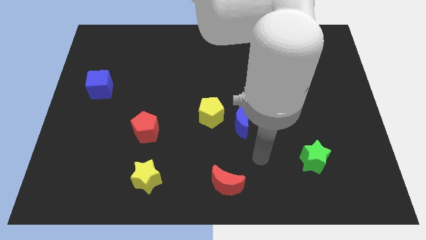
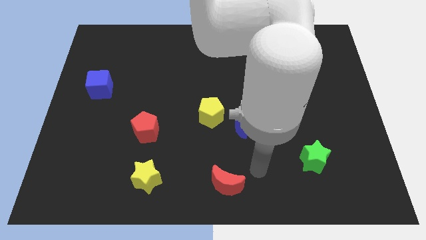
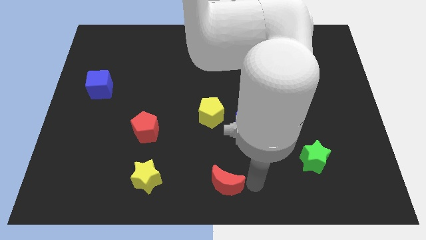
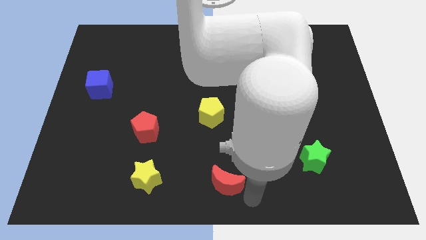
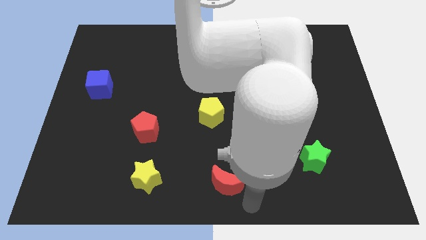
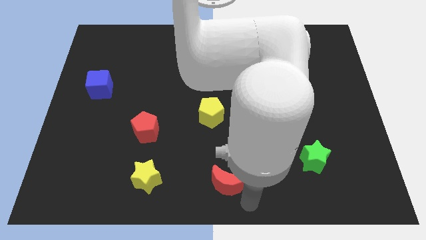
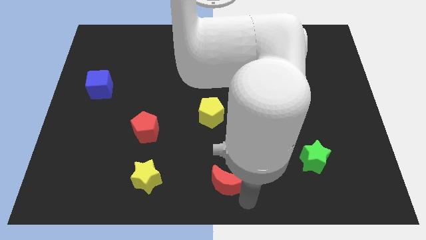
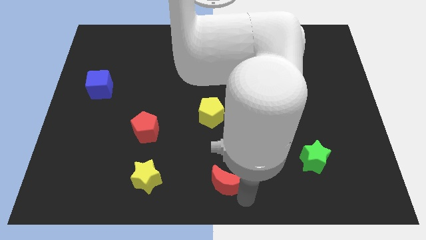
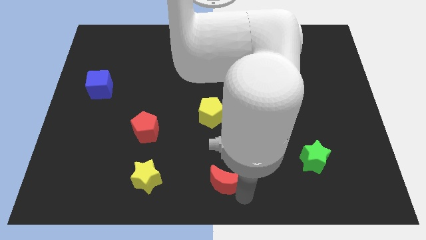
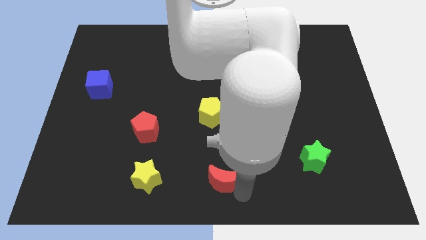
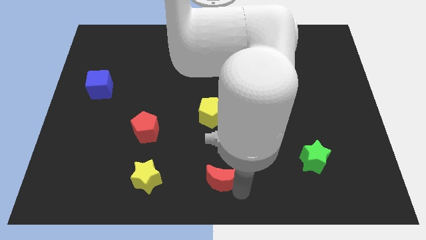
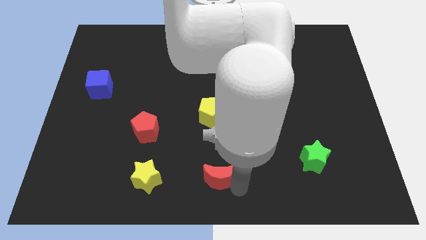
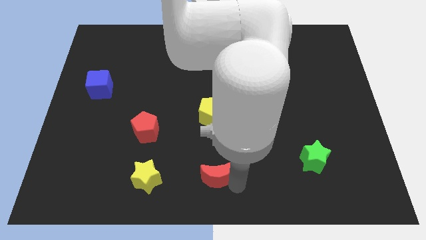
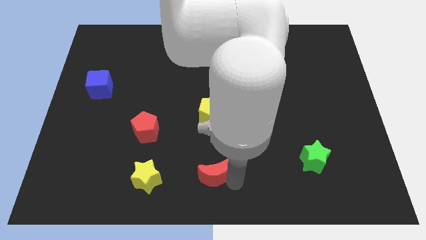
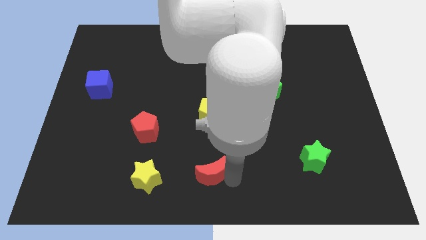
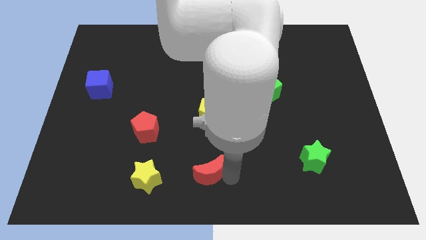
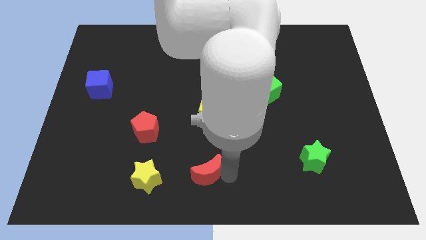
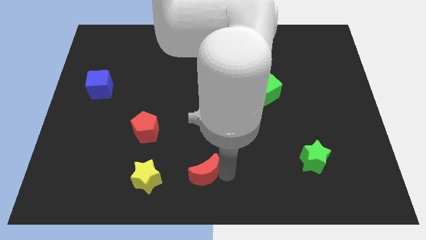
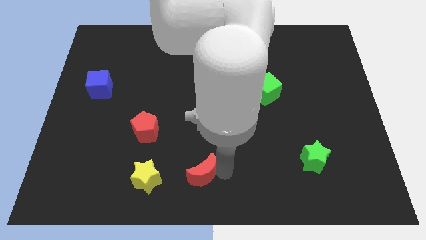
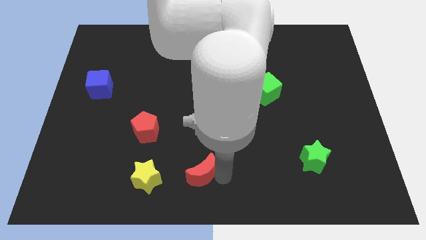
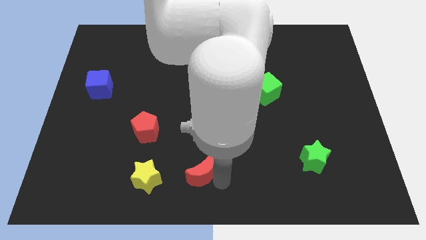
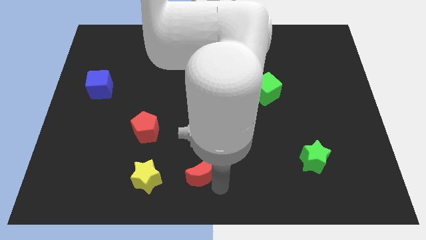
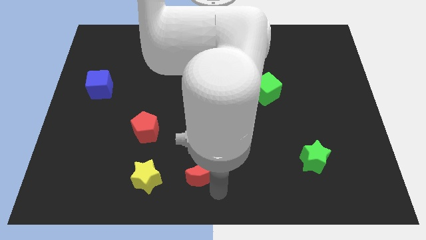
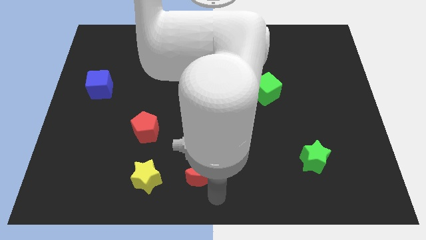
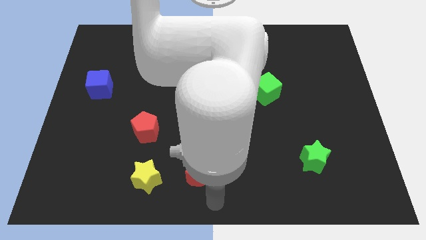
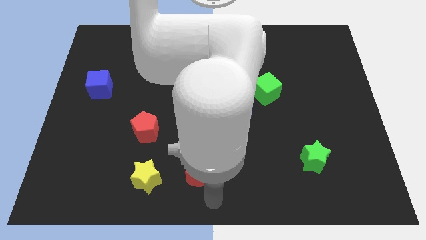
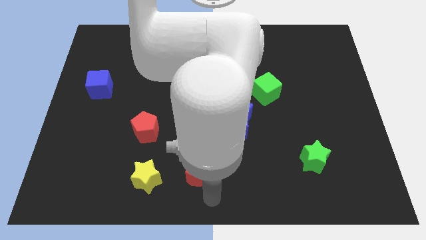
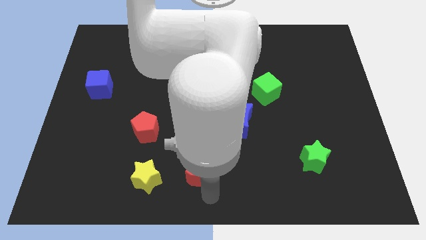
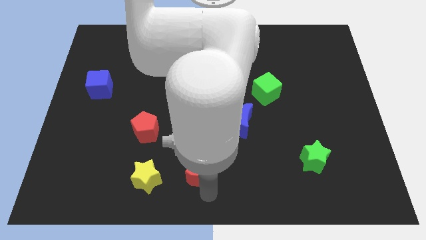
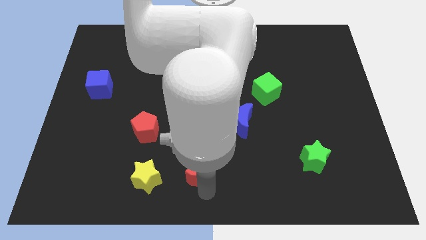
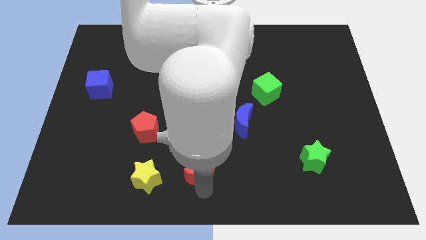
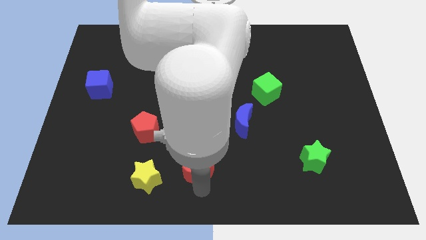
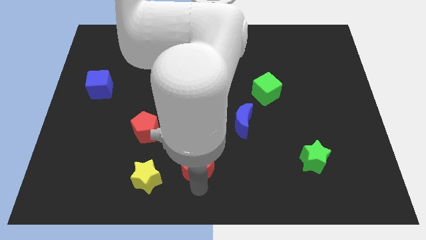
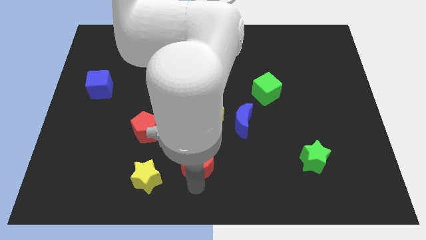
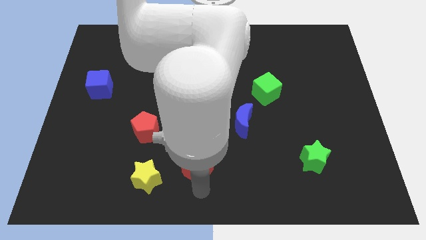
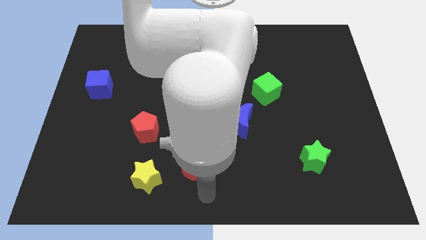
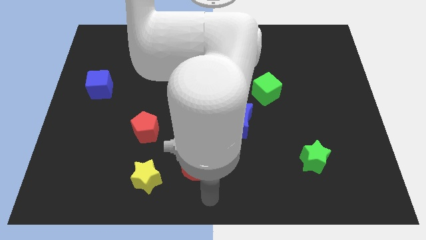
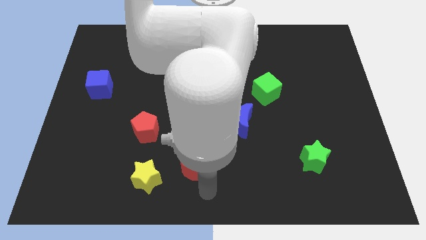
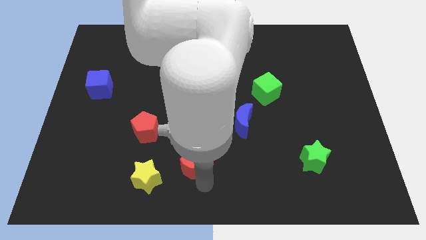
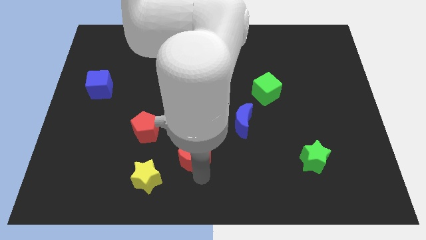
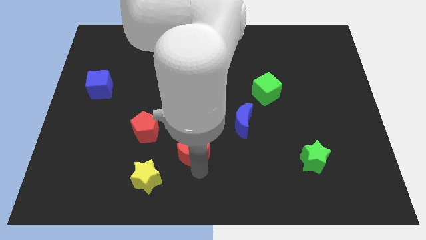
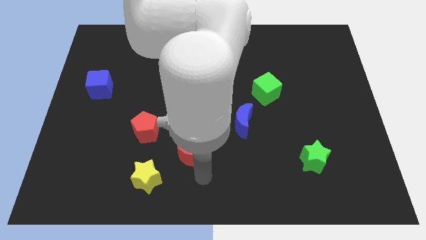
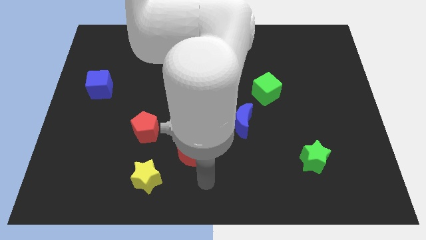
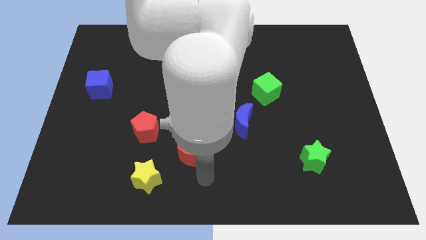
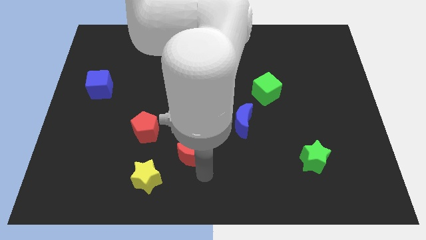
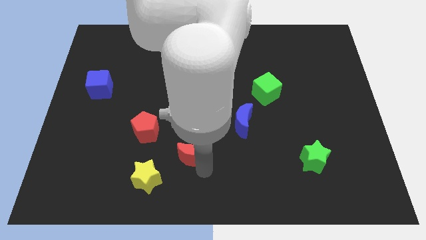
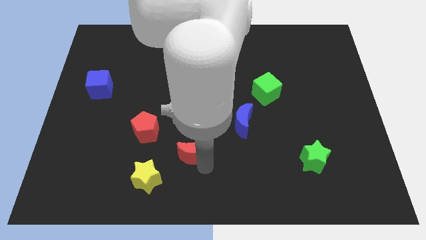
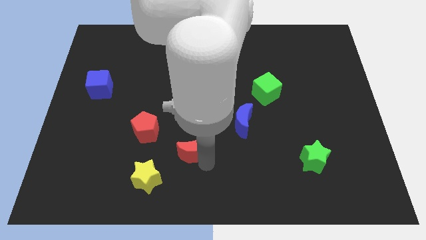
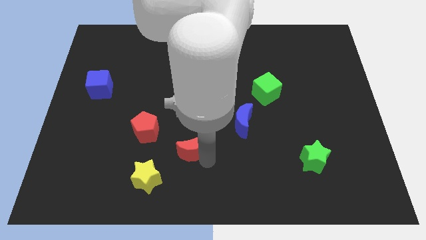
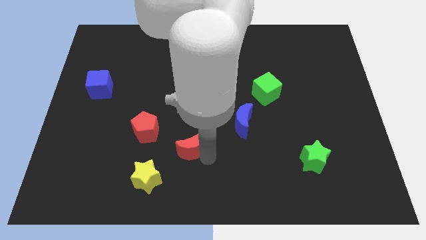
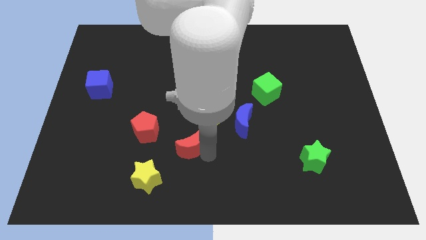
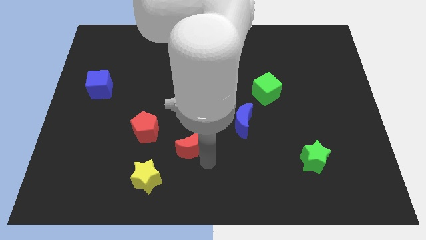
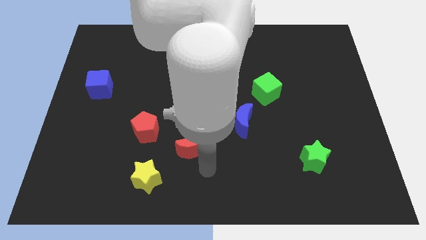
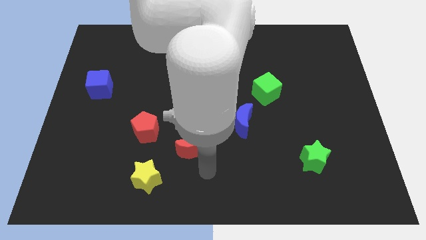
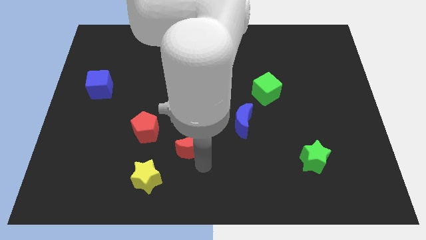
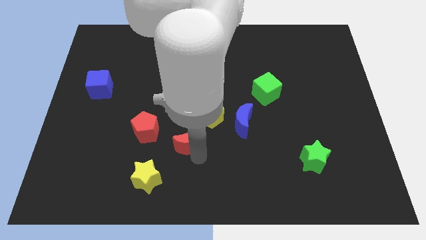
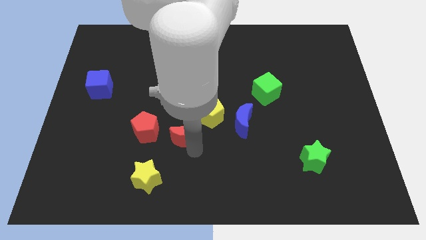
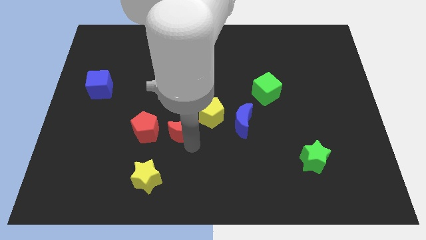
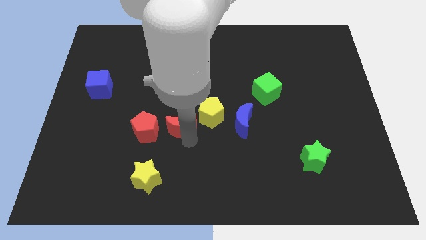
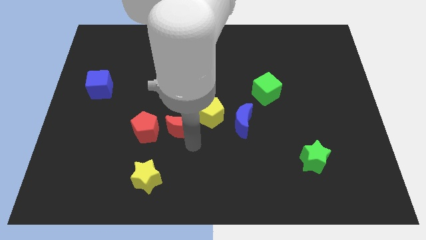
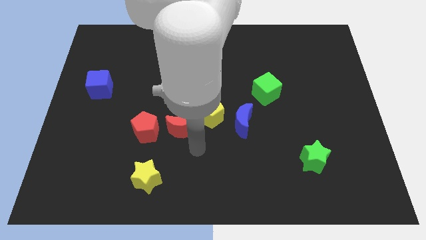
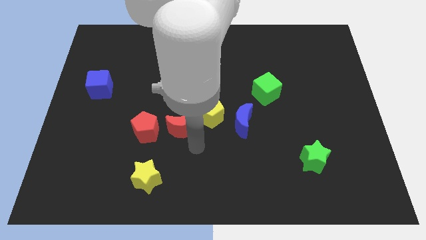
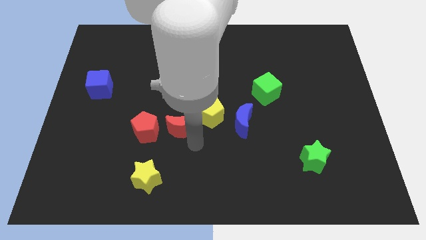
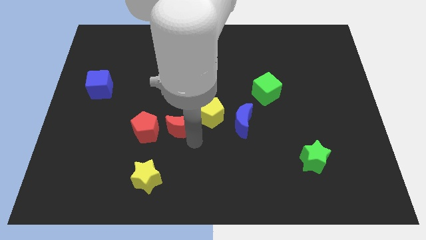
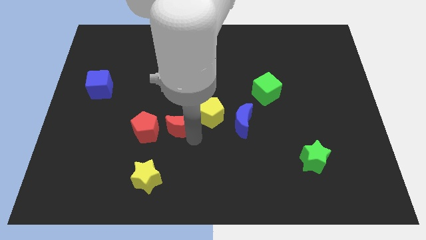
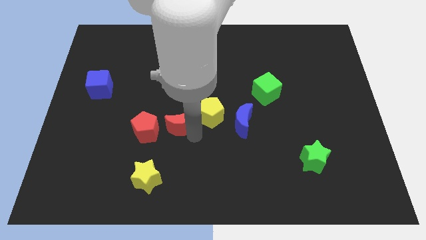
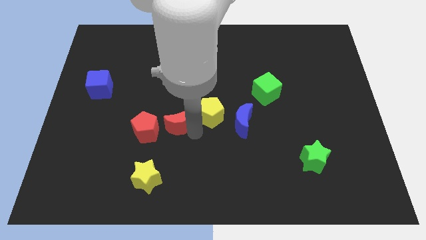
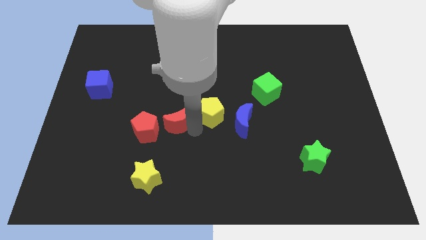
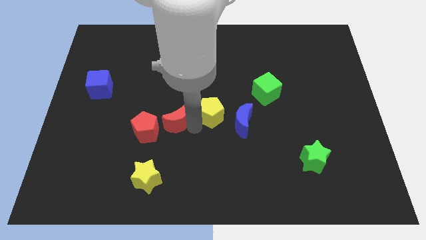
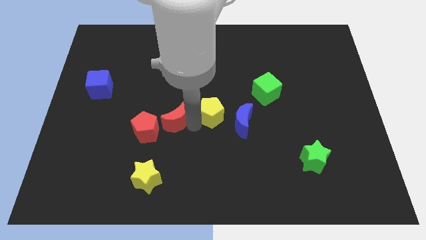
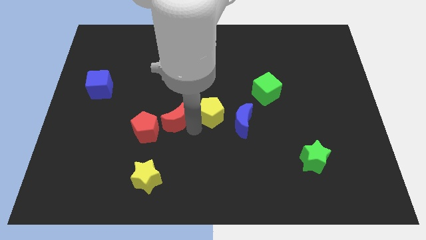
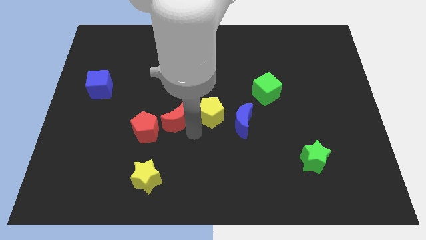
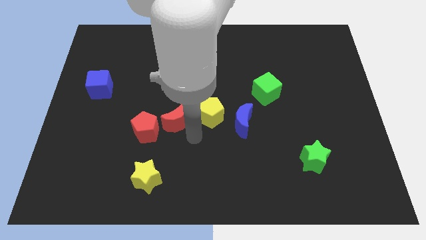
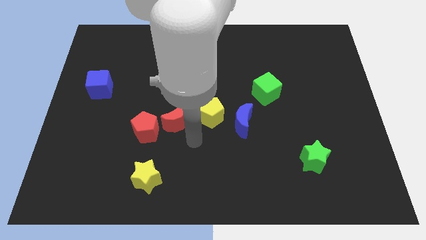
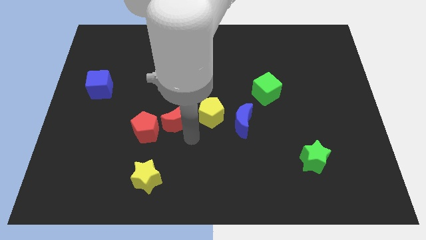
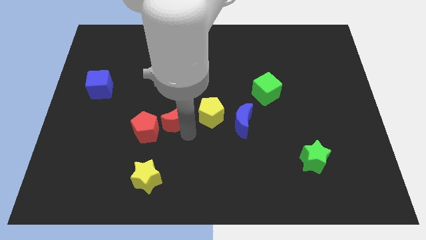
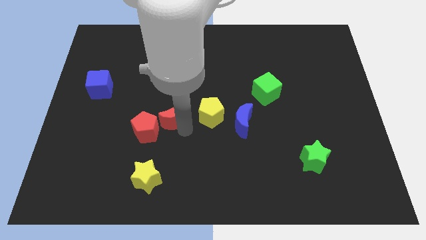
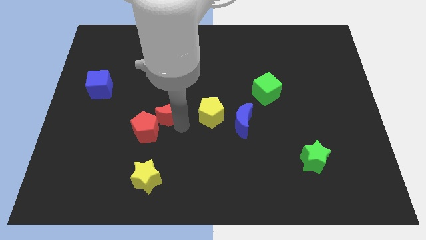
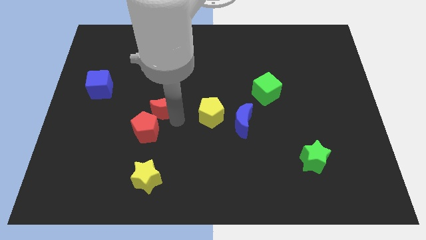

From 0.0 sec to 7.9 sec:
slide the red moon above the red pentagon

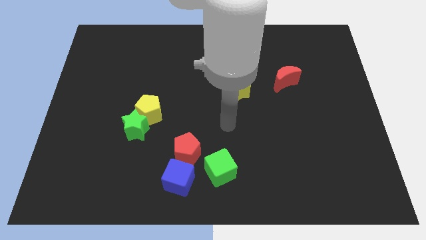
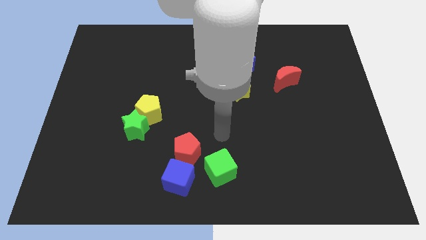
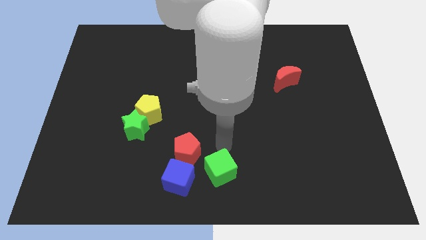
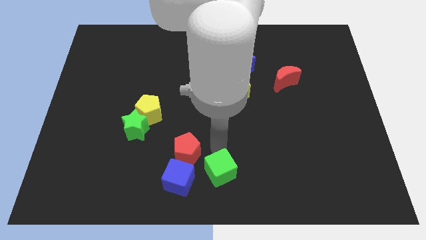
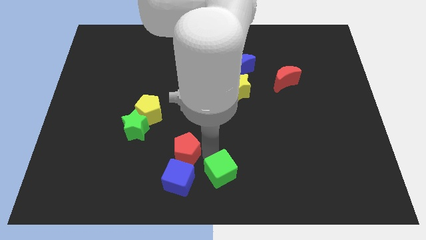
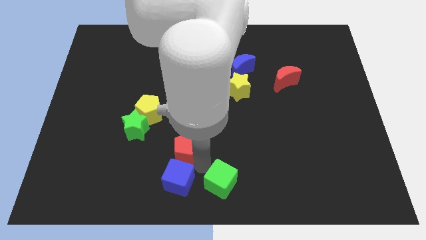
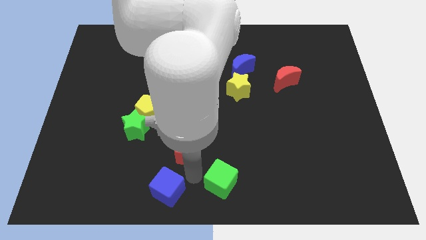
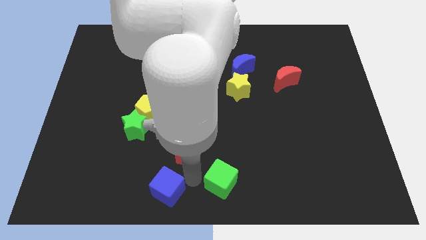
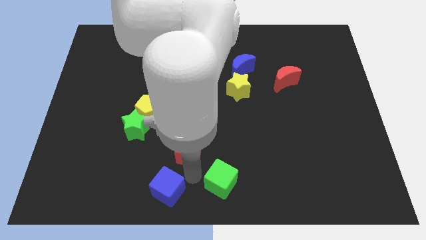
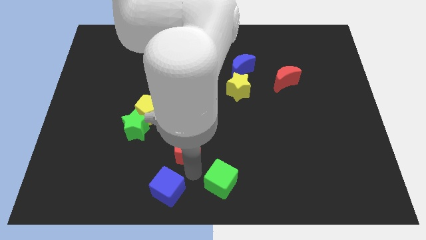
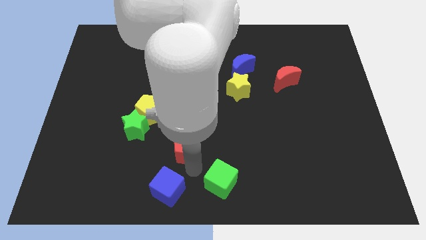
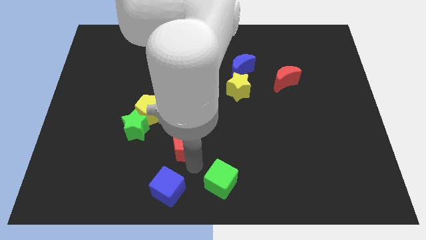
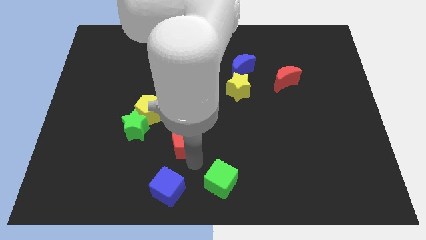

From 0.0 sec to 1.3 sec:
put the red pentagon to the right side of the green star
